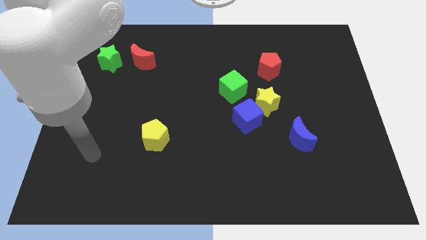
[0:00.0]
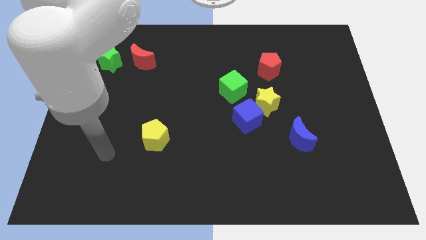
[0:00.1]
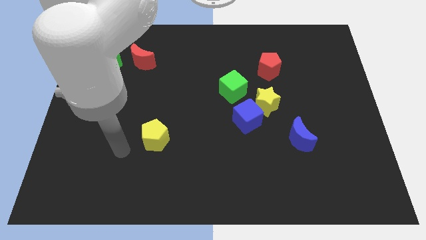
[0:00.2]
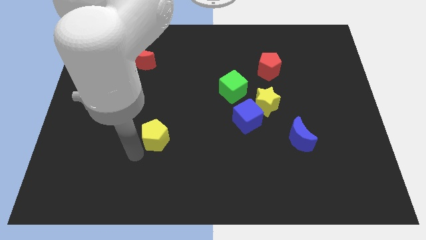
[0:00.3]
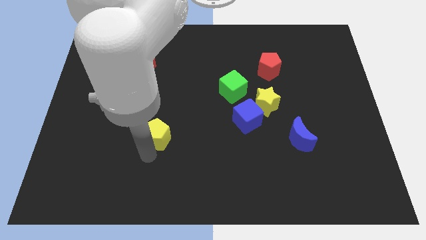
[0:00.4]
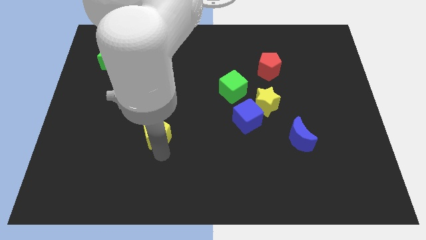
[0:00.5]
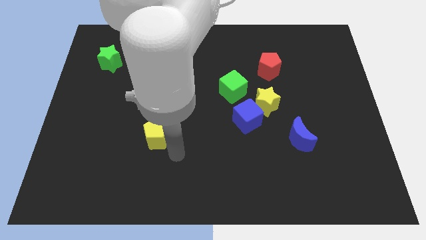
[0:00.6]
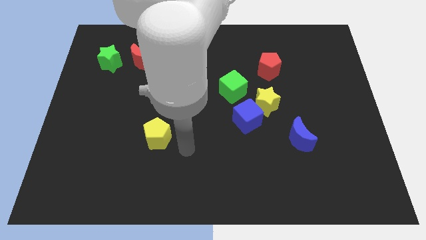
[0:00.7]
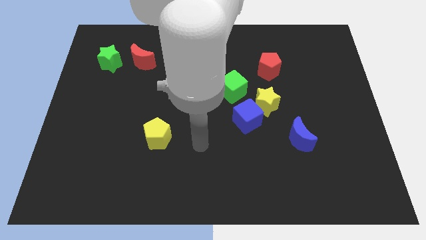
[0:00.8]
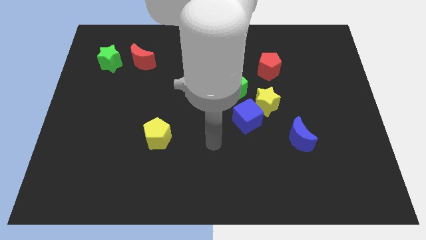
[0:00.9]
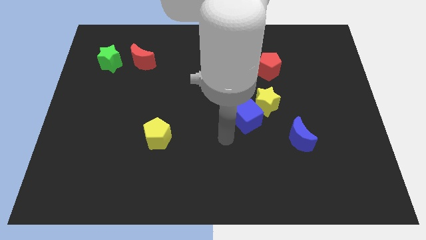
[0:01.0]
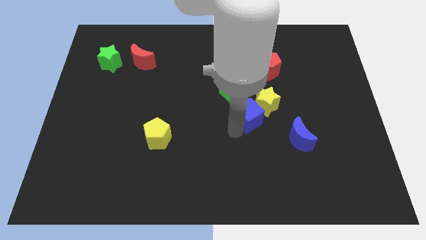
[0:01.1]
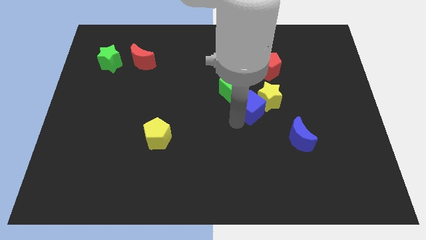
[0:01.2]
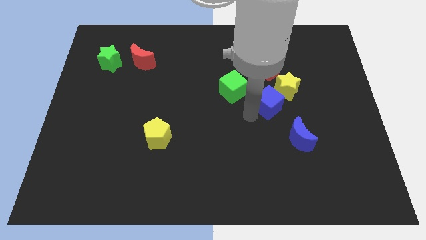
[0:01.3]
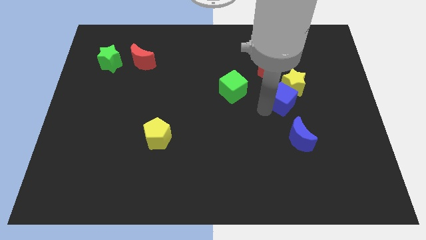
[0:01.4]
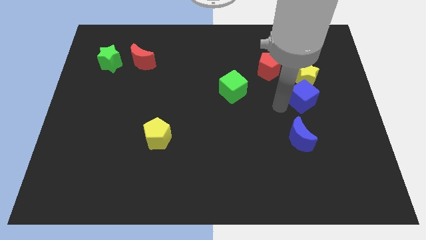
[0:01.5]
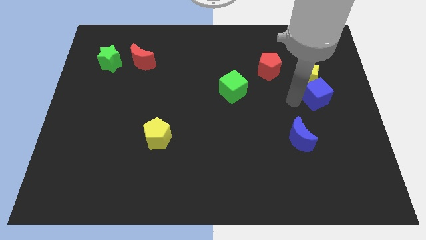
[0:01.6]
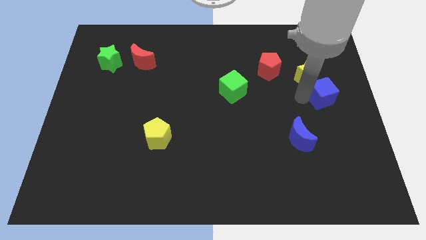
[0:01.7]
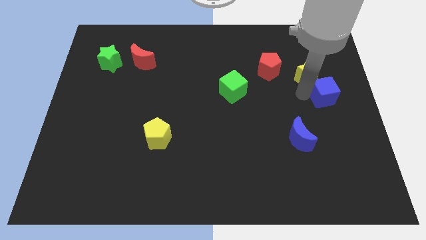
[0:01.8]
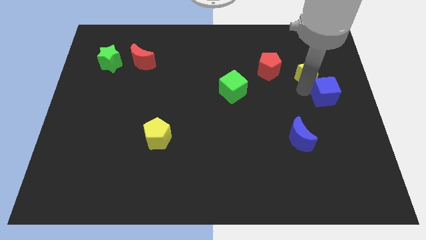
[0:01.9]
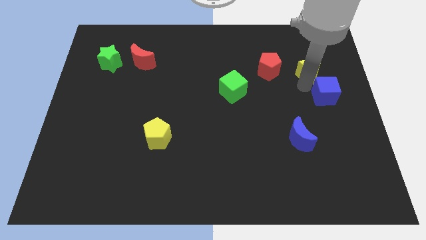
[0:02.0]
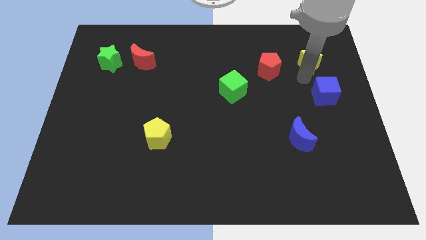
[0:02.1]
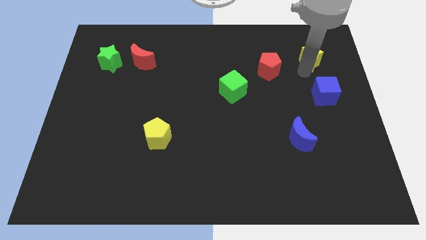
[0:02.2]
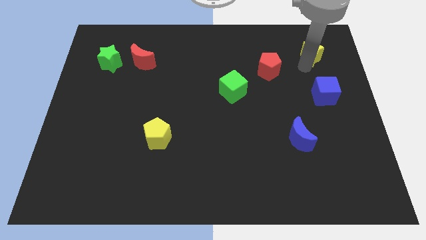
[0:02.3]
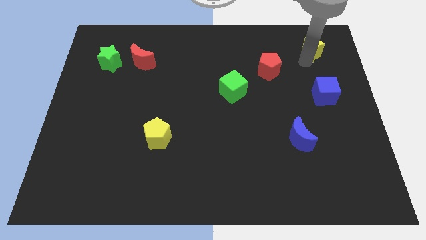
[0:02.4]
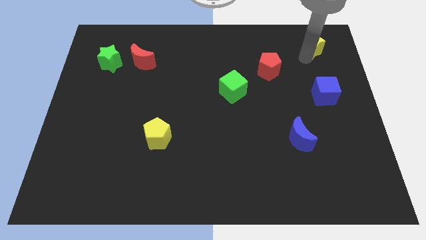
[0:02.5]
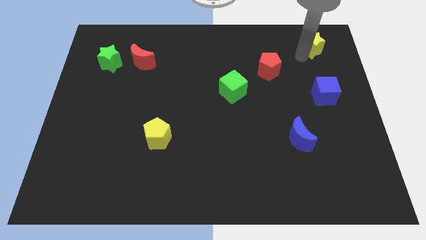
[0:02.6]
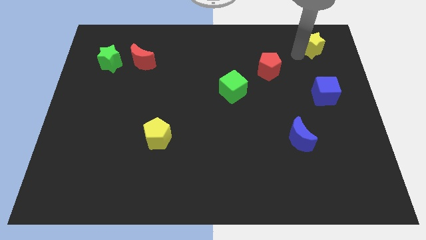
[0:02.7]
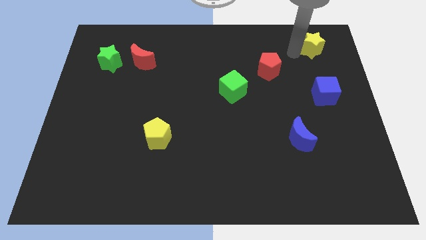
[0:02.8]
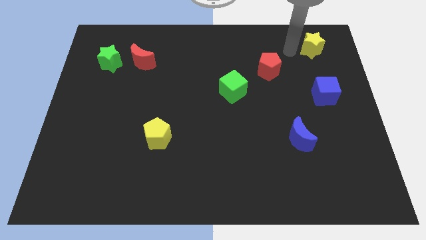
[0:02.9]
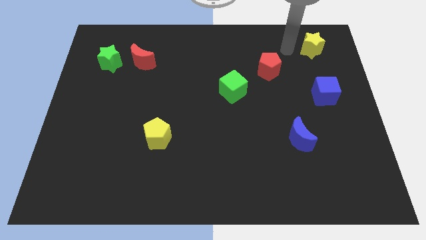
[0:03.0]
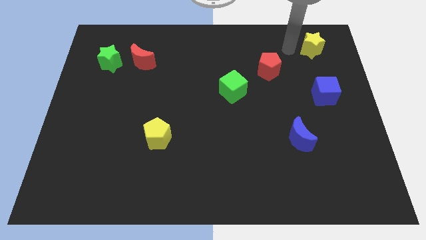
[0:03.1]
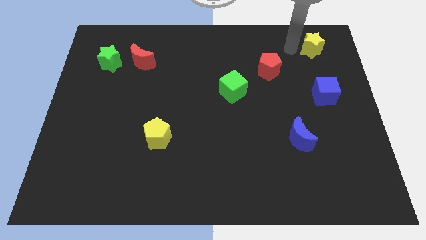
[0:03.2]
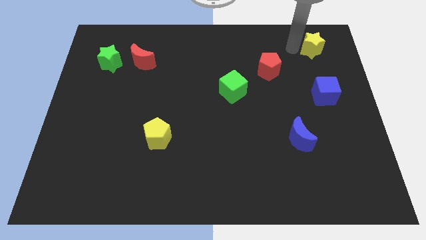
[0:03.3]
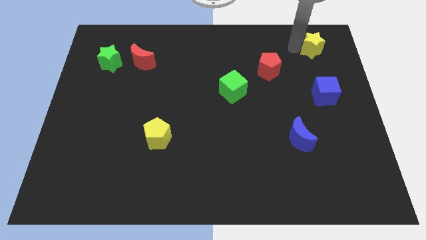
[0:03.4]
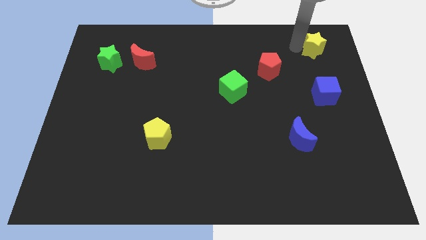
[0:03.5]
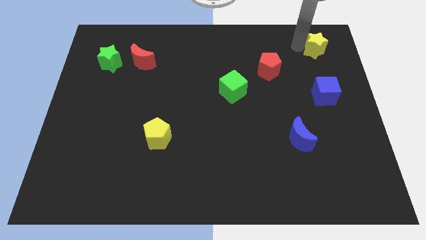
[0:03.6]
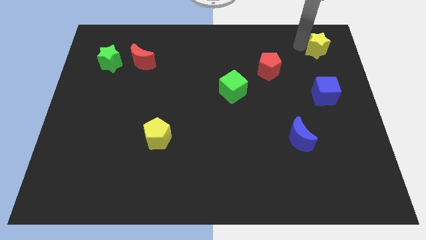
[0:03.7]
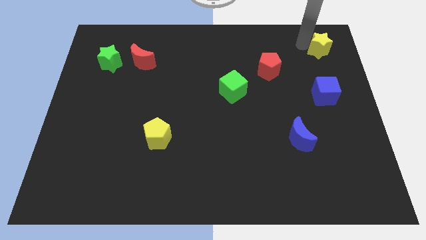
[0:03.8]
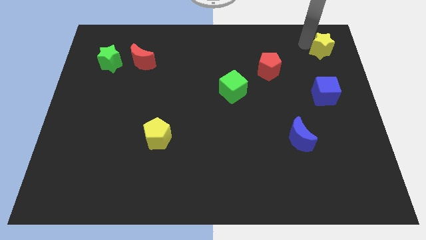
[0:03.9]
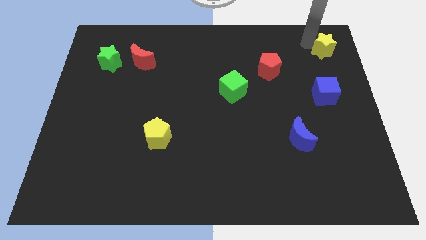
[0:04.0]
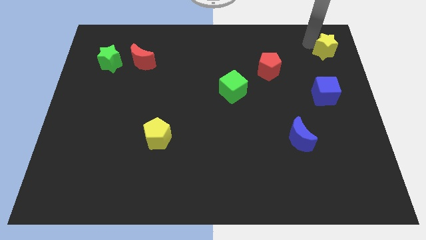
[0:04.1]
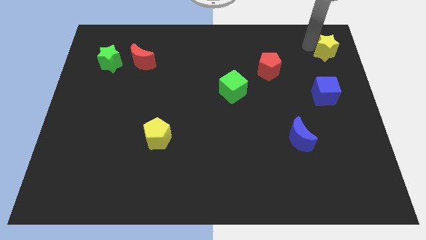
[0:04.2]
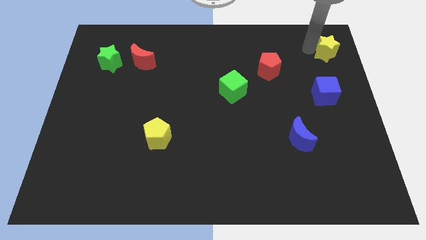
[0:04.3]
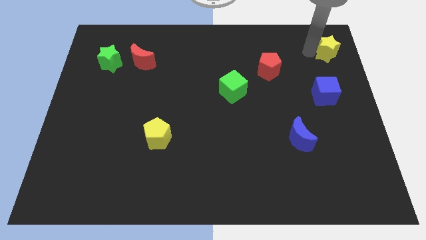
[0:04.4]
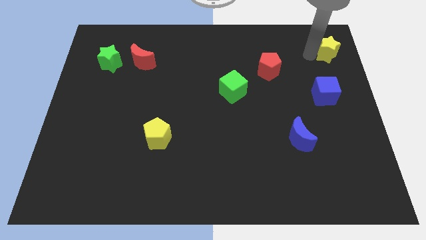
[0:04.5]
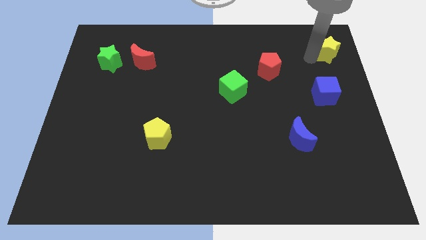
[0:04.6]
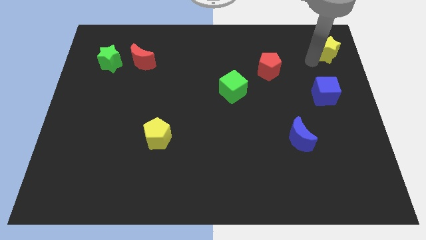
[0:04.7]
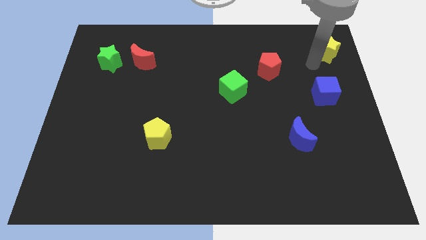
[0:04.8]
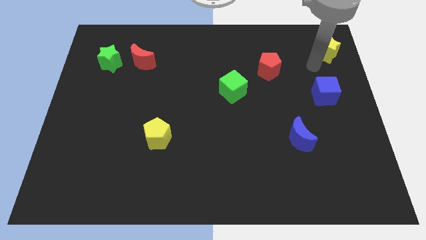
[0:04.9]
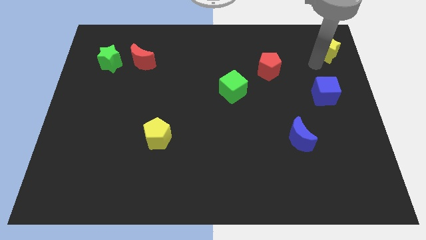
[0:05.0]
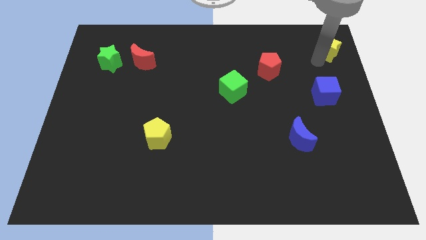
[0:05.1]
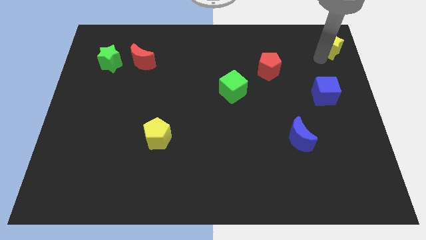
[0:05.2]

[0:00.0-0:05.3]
put the yellow star to the top right corner

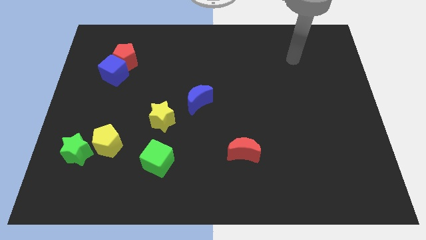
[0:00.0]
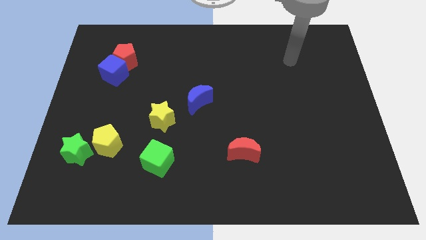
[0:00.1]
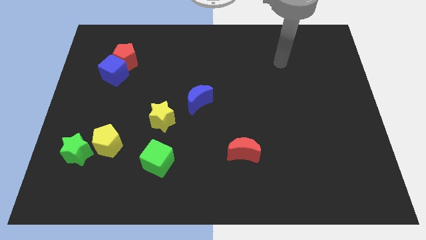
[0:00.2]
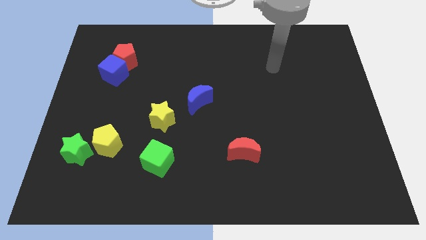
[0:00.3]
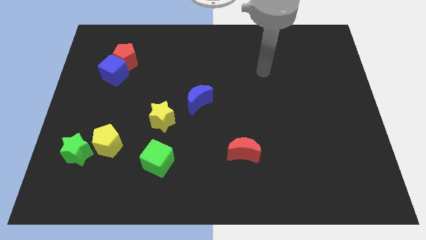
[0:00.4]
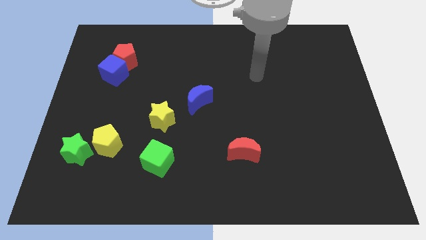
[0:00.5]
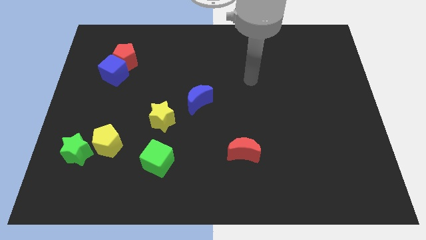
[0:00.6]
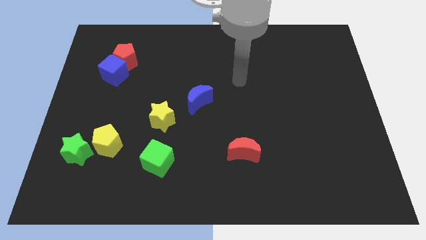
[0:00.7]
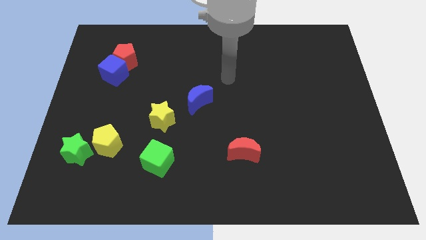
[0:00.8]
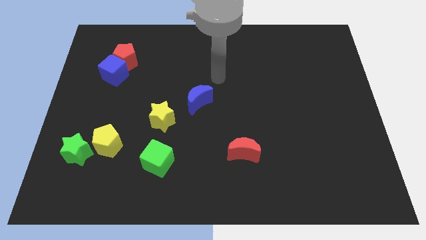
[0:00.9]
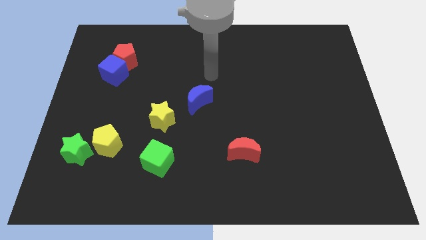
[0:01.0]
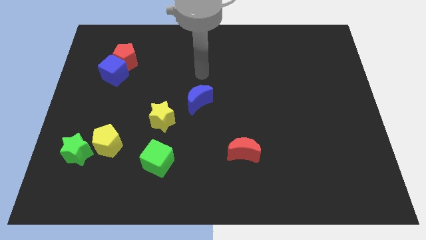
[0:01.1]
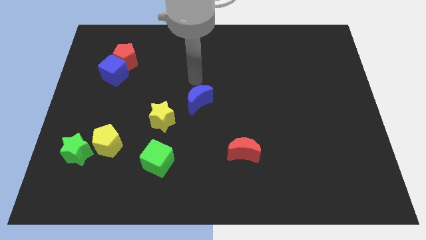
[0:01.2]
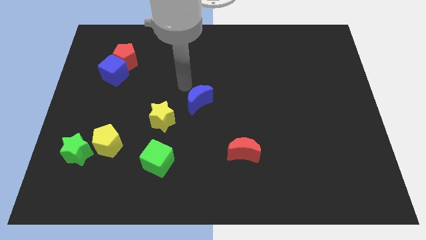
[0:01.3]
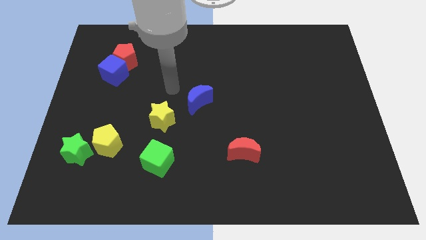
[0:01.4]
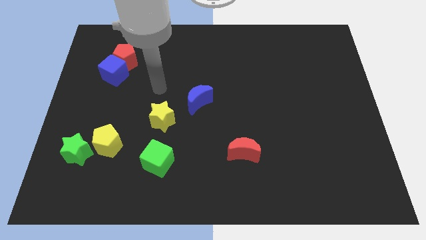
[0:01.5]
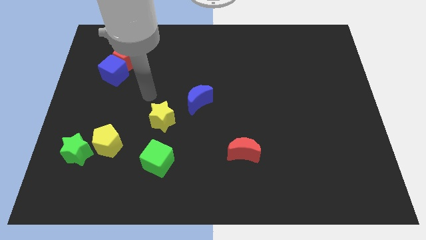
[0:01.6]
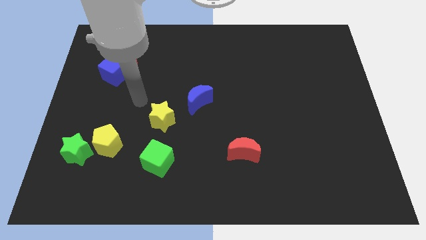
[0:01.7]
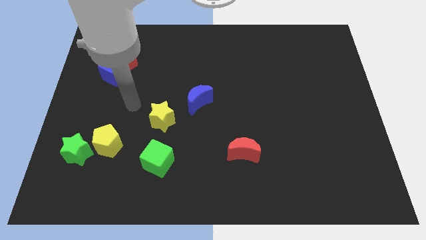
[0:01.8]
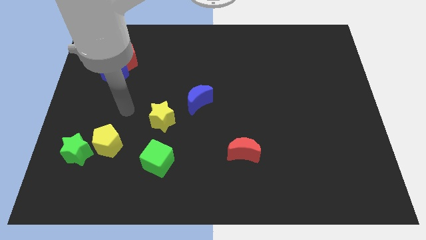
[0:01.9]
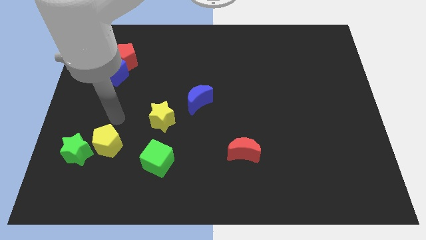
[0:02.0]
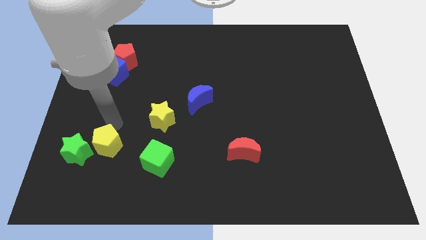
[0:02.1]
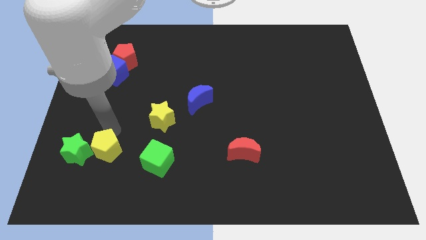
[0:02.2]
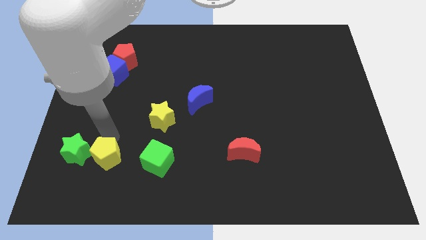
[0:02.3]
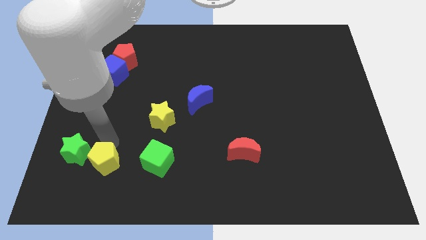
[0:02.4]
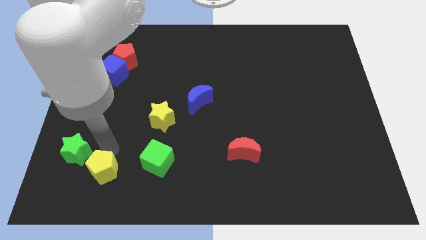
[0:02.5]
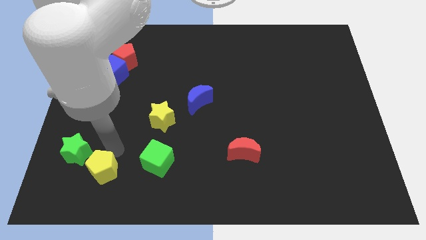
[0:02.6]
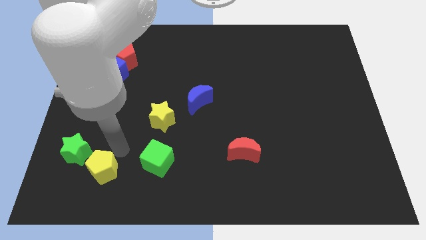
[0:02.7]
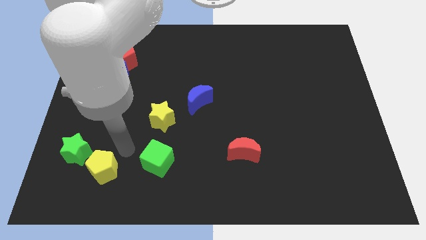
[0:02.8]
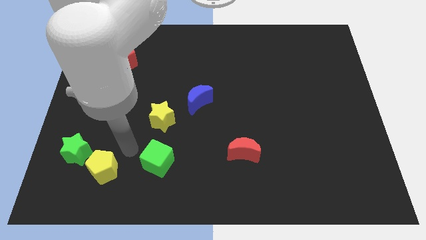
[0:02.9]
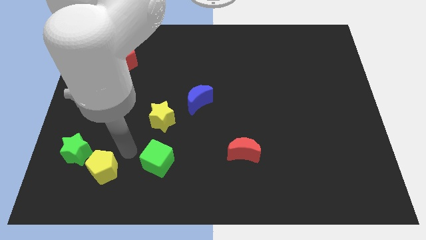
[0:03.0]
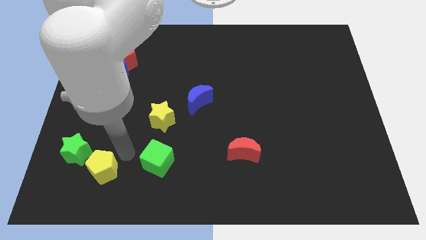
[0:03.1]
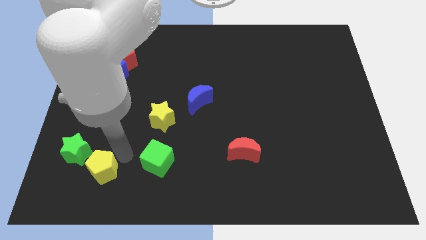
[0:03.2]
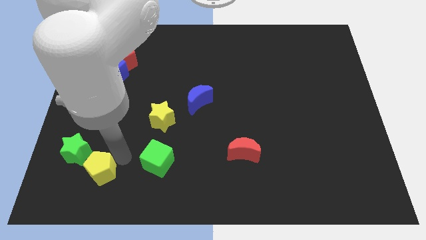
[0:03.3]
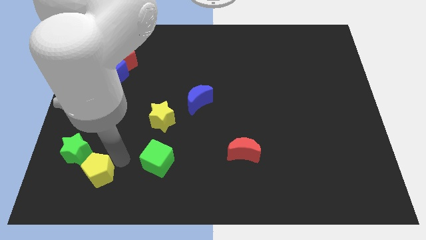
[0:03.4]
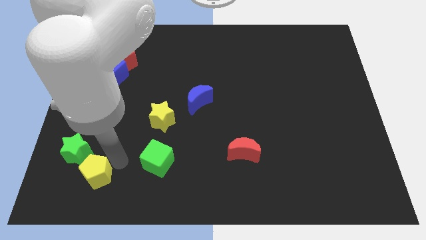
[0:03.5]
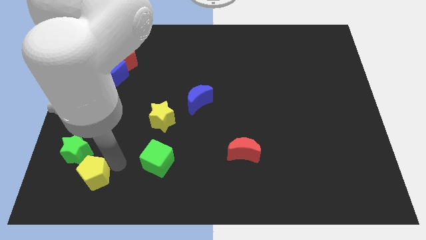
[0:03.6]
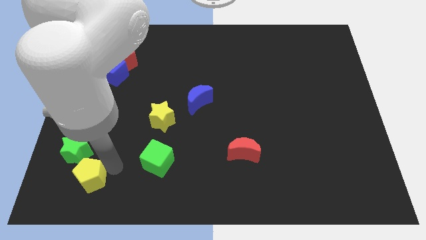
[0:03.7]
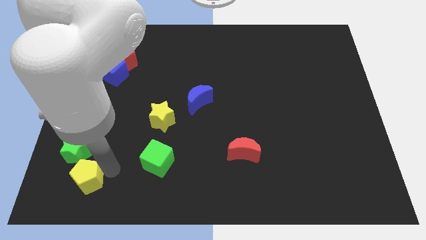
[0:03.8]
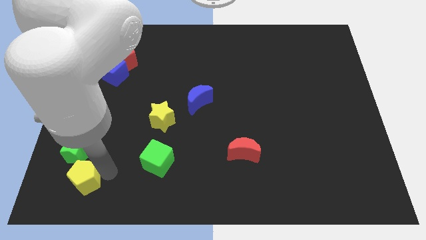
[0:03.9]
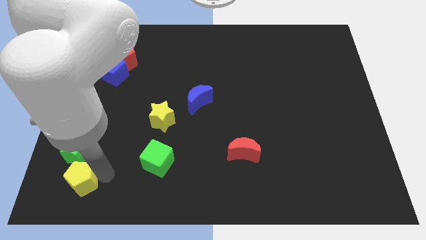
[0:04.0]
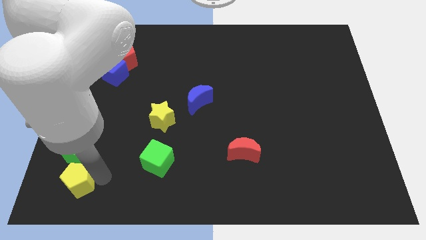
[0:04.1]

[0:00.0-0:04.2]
move the yellow pentagon to the bottom left
